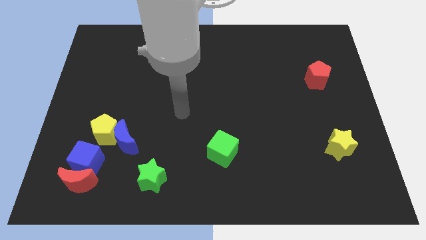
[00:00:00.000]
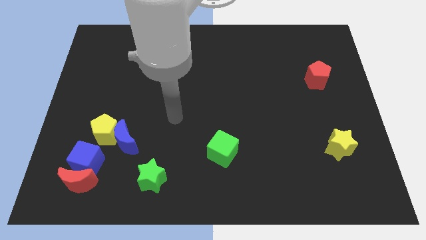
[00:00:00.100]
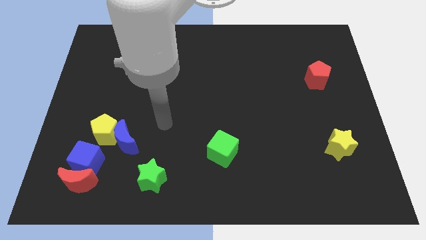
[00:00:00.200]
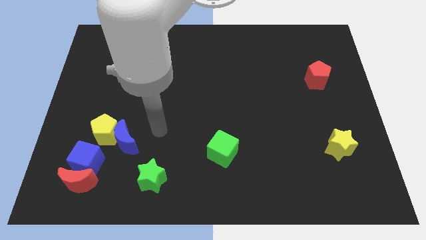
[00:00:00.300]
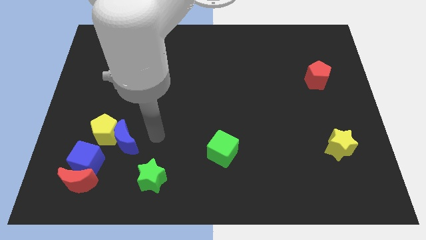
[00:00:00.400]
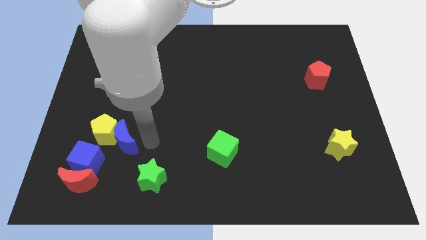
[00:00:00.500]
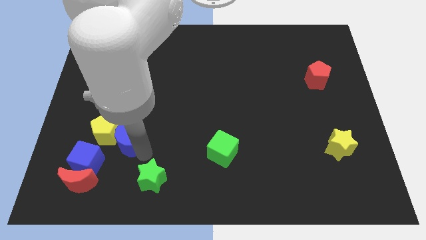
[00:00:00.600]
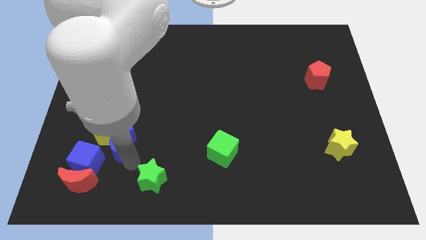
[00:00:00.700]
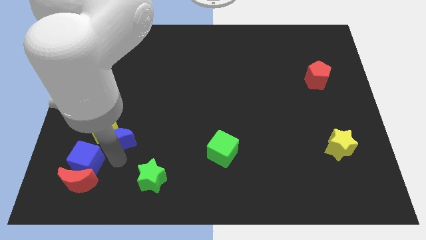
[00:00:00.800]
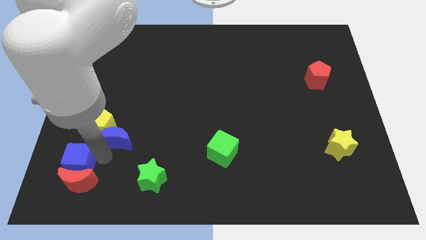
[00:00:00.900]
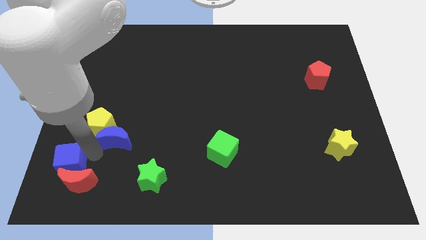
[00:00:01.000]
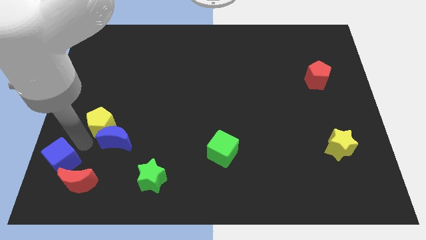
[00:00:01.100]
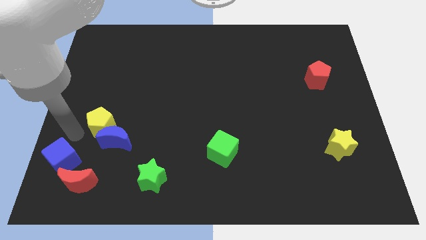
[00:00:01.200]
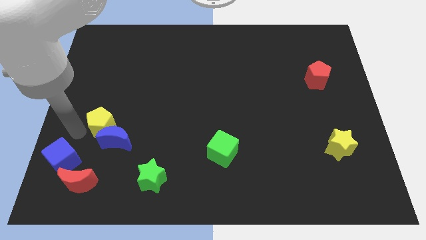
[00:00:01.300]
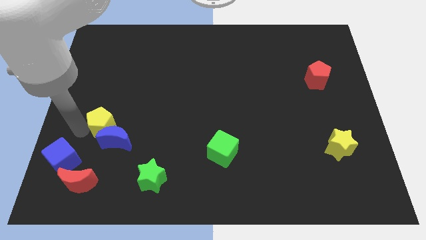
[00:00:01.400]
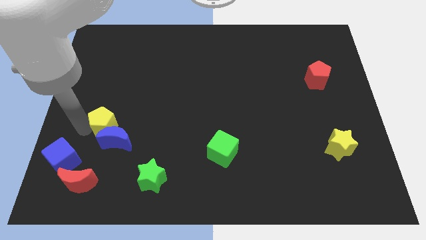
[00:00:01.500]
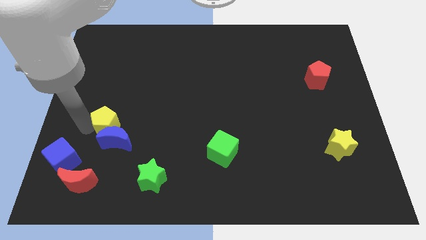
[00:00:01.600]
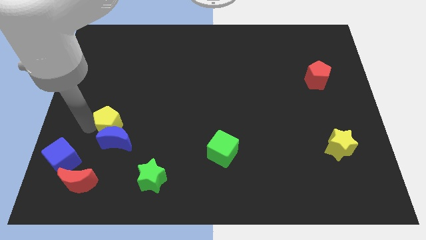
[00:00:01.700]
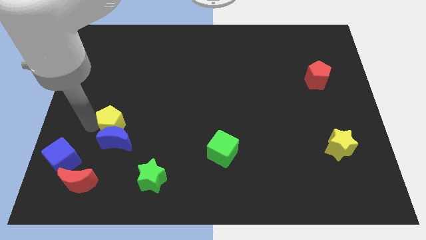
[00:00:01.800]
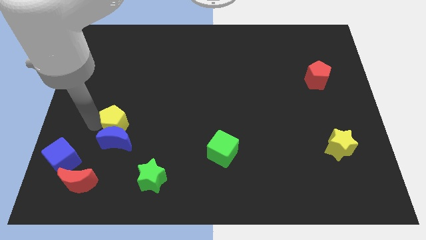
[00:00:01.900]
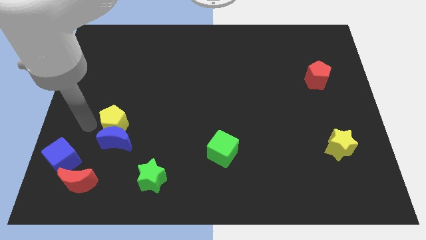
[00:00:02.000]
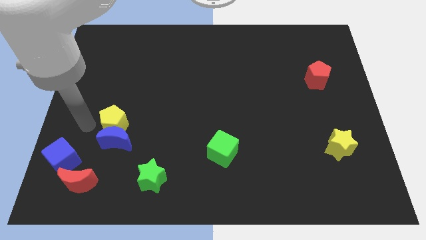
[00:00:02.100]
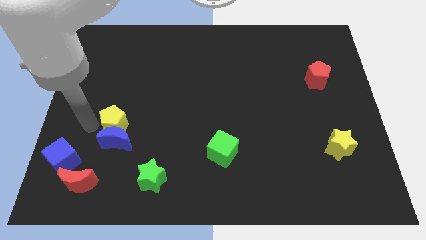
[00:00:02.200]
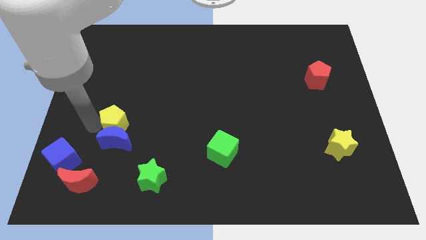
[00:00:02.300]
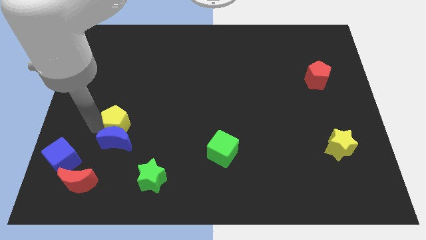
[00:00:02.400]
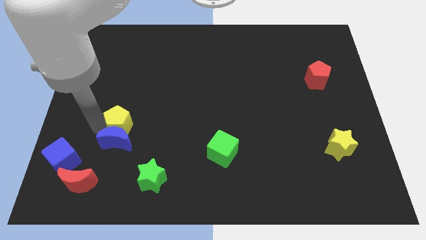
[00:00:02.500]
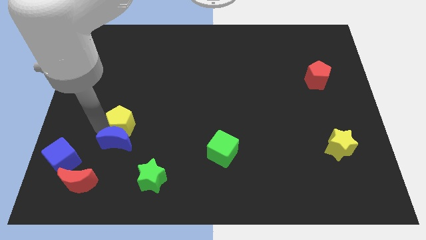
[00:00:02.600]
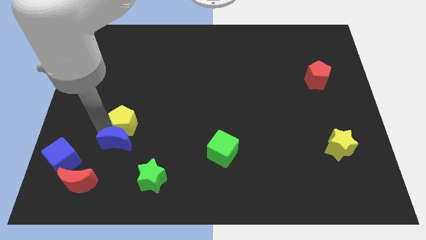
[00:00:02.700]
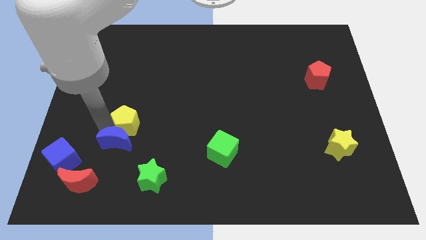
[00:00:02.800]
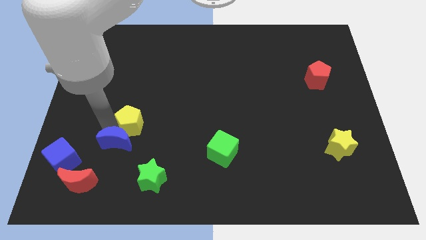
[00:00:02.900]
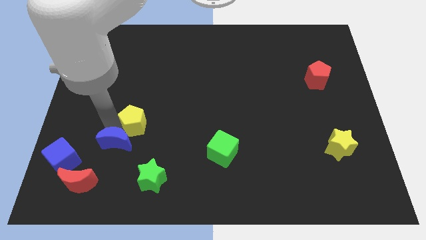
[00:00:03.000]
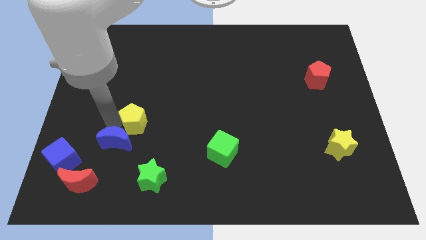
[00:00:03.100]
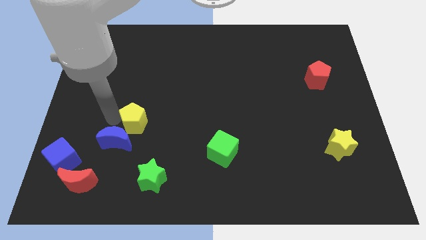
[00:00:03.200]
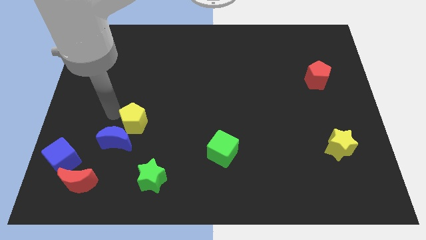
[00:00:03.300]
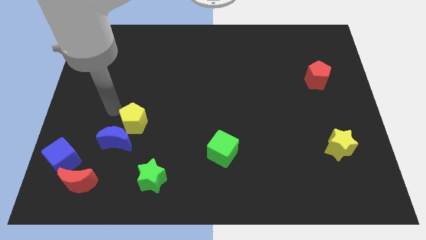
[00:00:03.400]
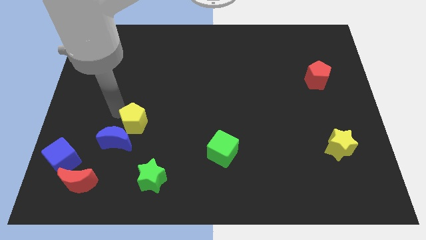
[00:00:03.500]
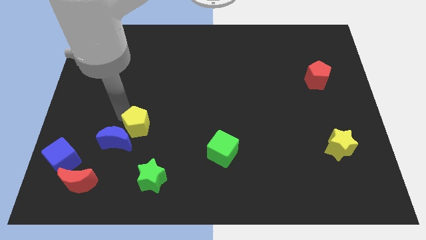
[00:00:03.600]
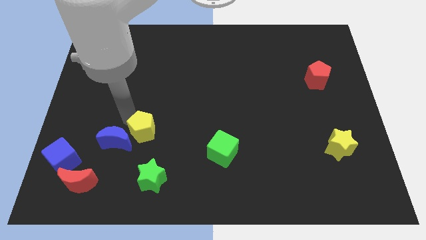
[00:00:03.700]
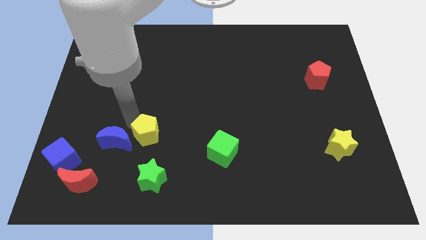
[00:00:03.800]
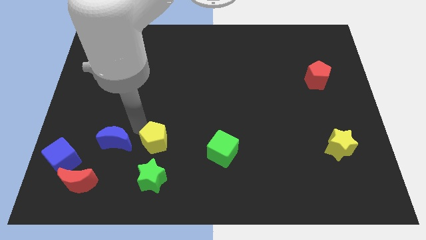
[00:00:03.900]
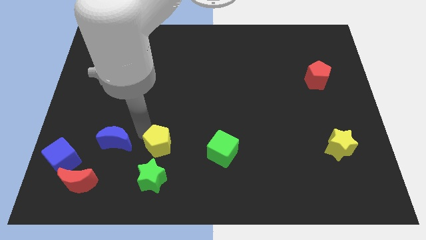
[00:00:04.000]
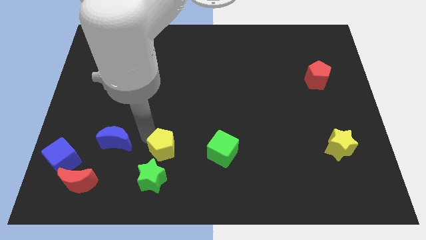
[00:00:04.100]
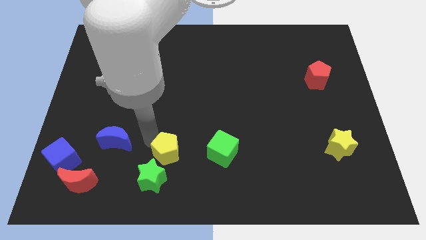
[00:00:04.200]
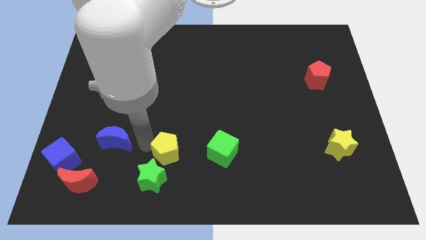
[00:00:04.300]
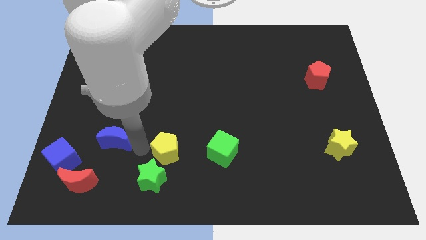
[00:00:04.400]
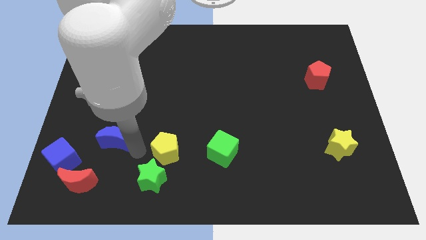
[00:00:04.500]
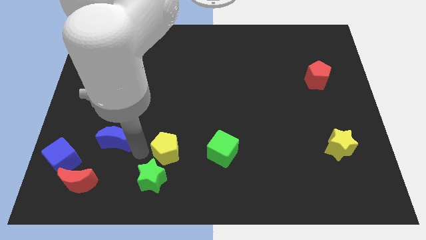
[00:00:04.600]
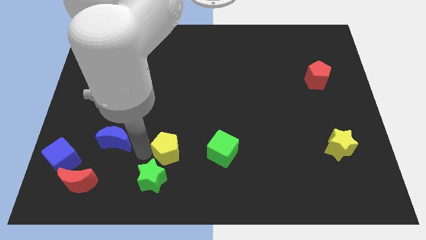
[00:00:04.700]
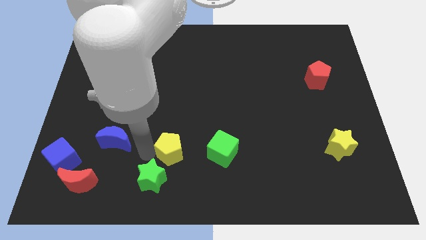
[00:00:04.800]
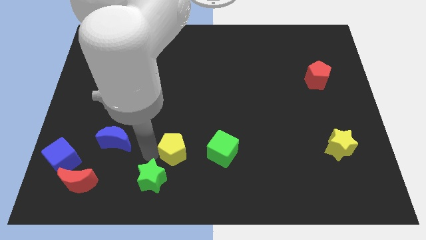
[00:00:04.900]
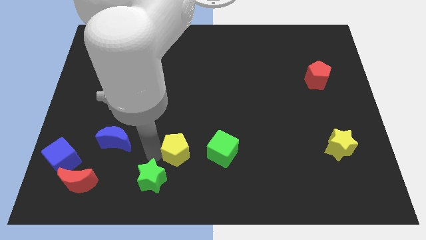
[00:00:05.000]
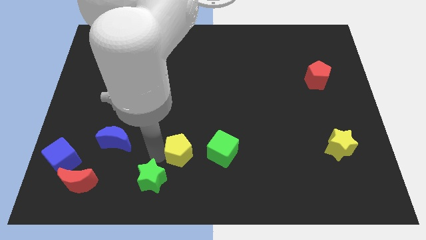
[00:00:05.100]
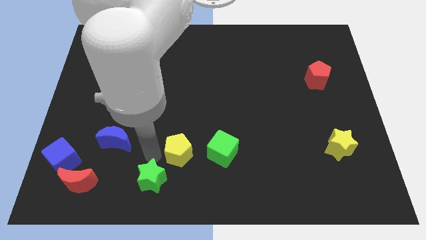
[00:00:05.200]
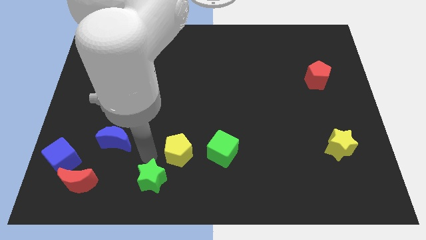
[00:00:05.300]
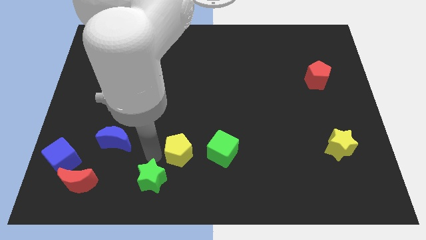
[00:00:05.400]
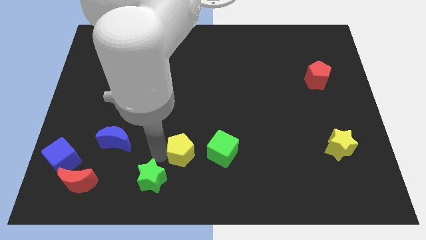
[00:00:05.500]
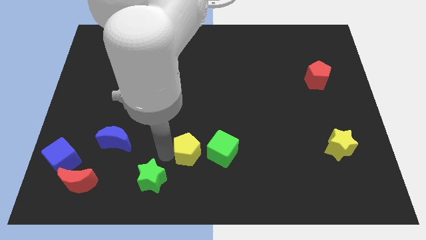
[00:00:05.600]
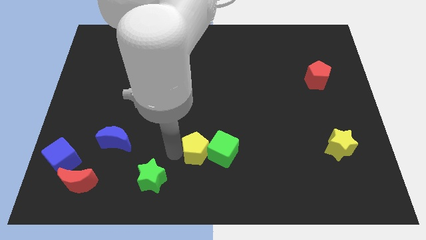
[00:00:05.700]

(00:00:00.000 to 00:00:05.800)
push the yellow pentagon close to the green cube
